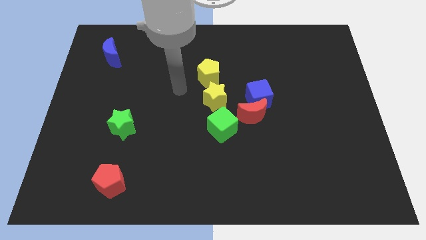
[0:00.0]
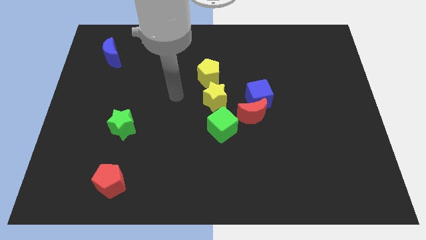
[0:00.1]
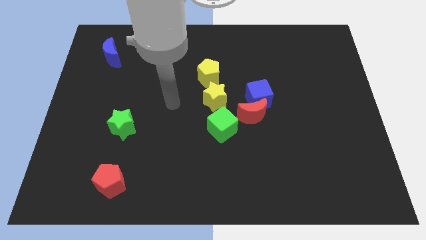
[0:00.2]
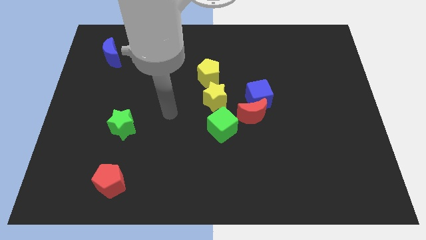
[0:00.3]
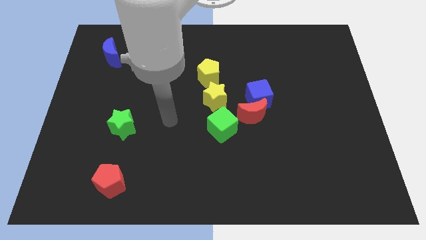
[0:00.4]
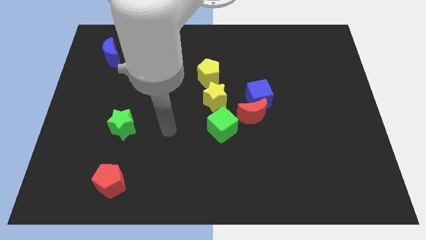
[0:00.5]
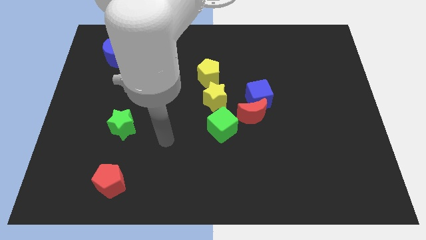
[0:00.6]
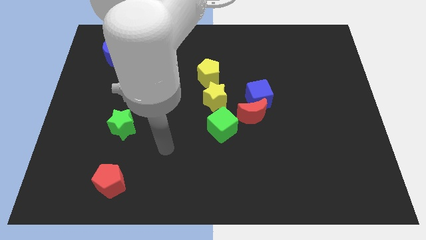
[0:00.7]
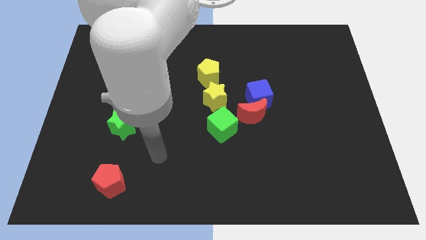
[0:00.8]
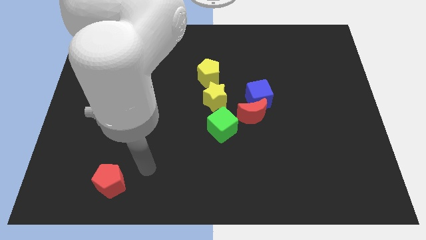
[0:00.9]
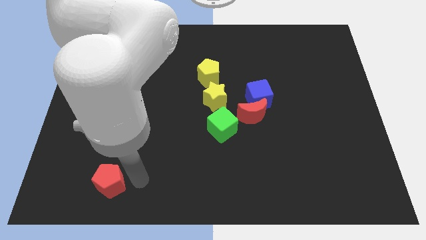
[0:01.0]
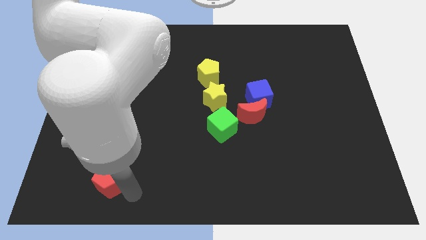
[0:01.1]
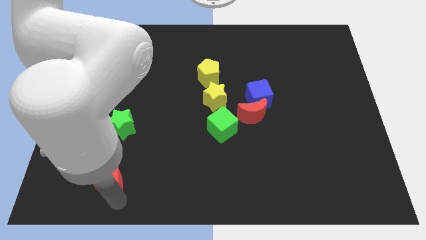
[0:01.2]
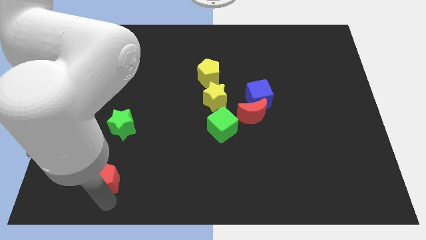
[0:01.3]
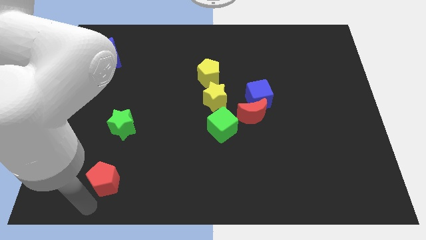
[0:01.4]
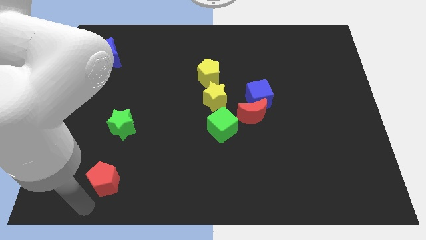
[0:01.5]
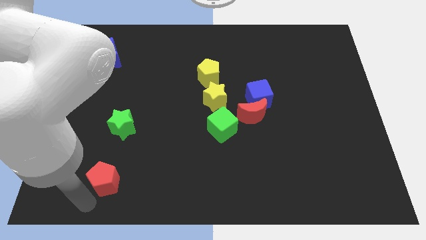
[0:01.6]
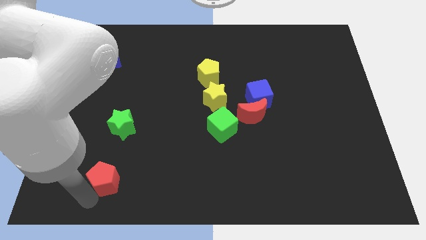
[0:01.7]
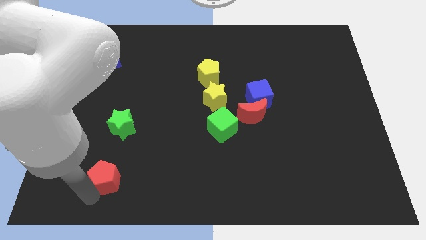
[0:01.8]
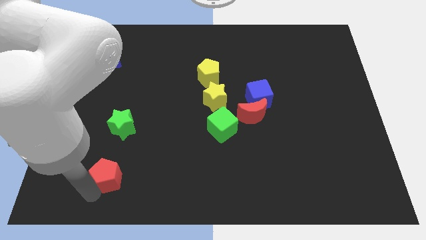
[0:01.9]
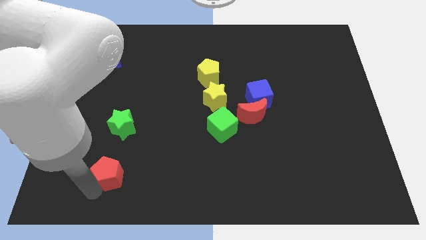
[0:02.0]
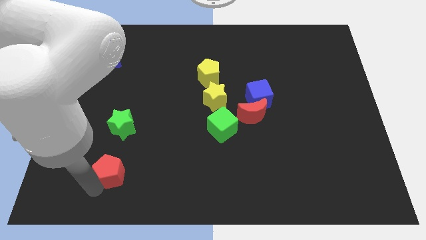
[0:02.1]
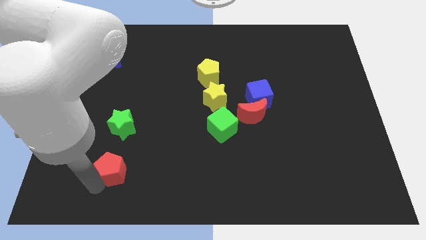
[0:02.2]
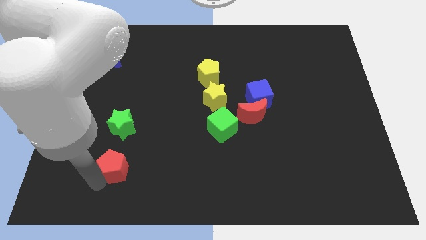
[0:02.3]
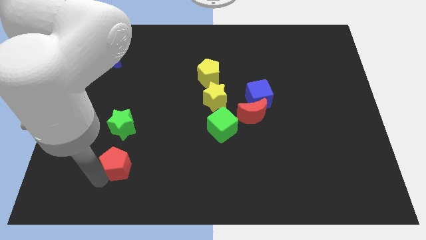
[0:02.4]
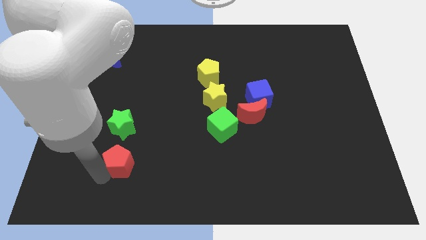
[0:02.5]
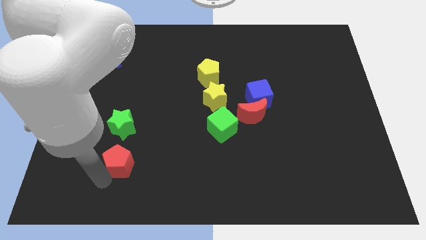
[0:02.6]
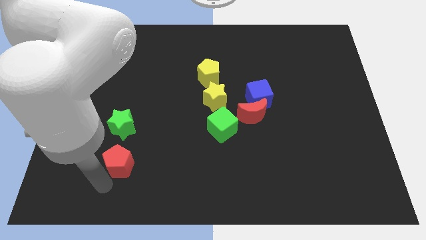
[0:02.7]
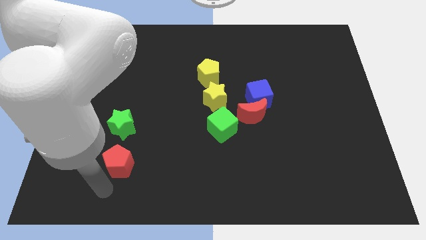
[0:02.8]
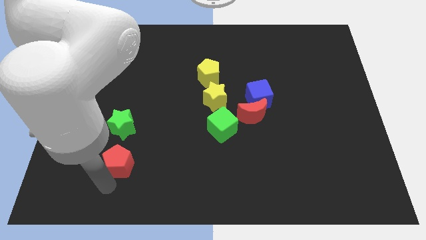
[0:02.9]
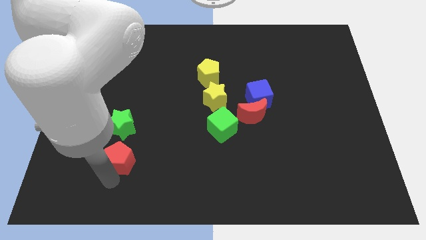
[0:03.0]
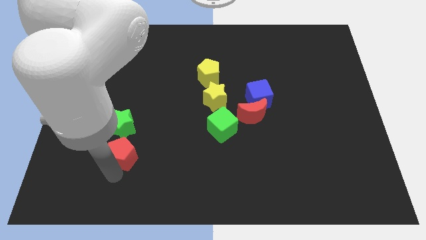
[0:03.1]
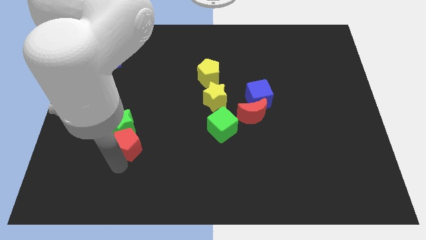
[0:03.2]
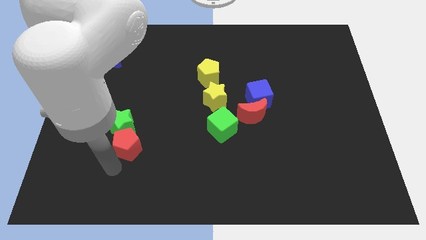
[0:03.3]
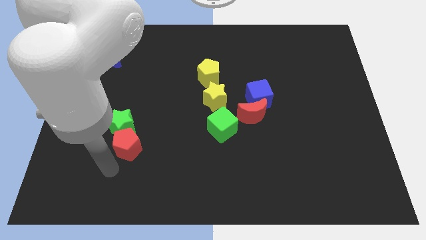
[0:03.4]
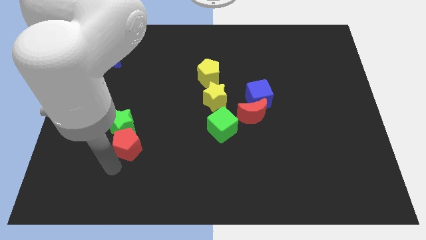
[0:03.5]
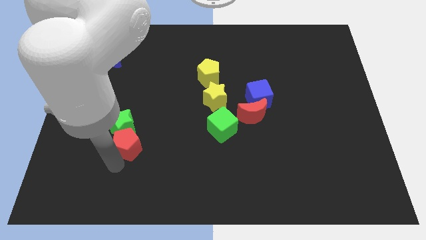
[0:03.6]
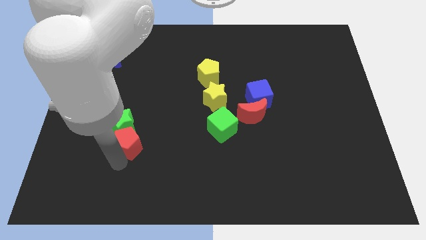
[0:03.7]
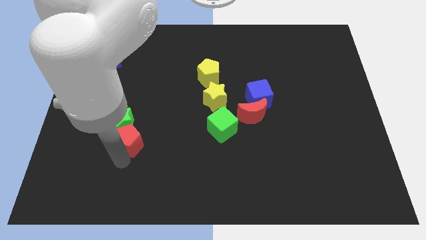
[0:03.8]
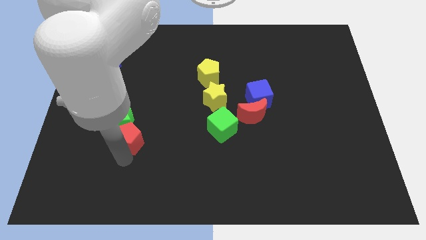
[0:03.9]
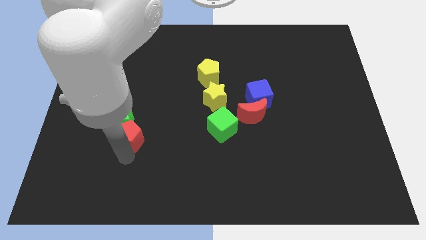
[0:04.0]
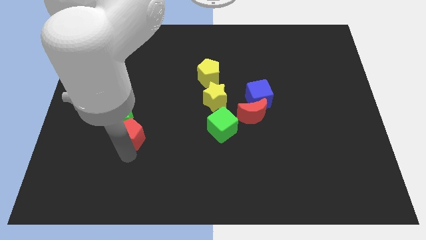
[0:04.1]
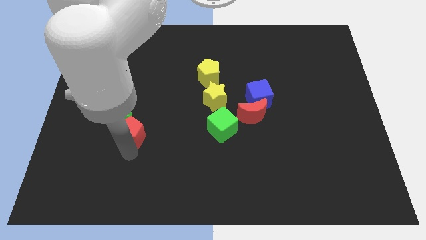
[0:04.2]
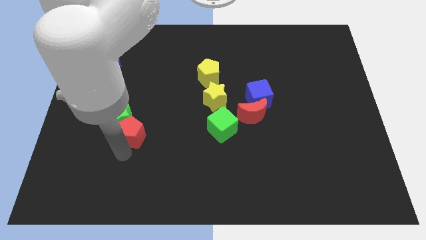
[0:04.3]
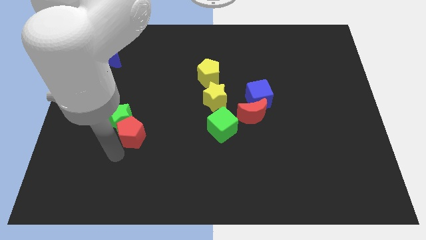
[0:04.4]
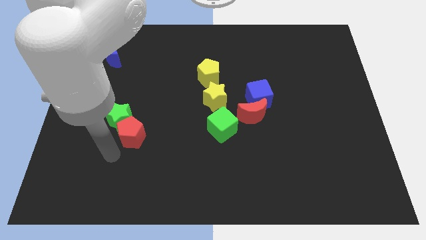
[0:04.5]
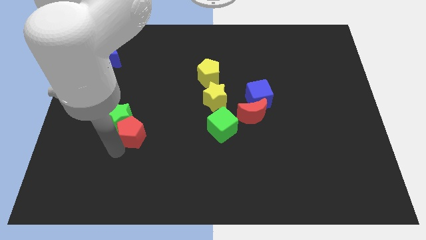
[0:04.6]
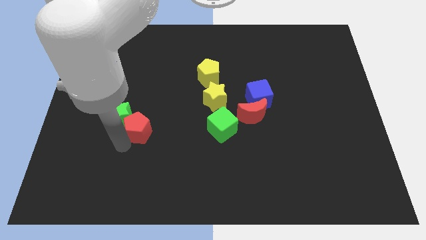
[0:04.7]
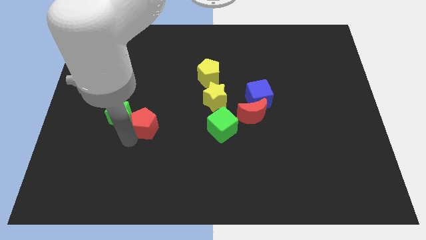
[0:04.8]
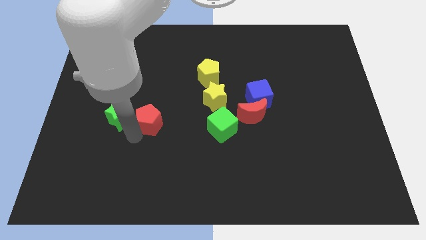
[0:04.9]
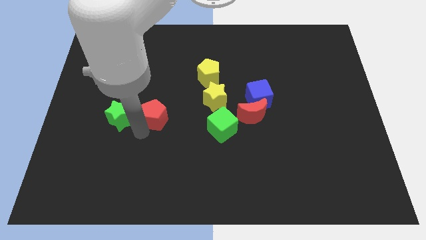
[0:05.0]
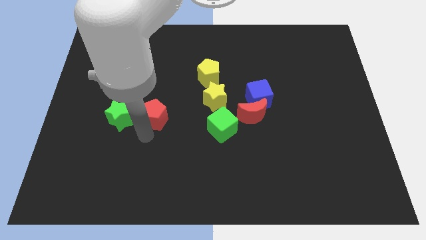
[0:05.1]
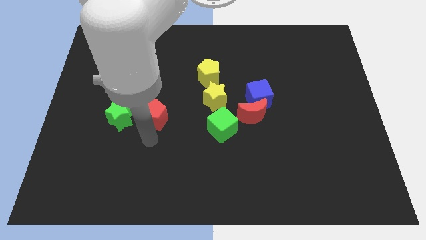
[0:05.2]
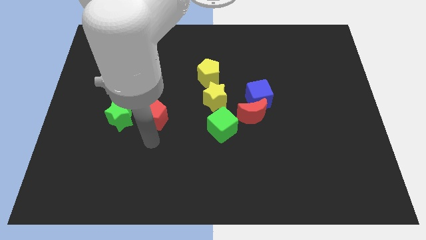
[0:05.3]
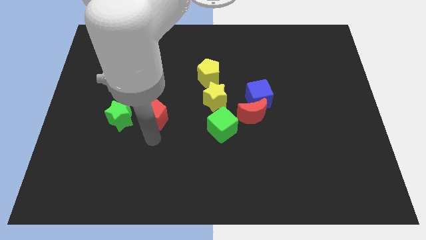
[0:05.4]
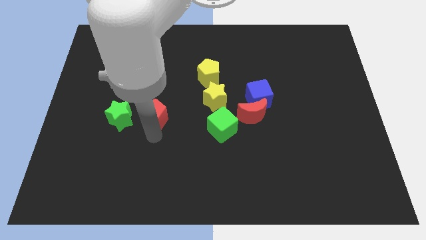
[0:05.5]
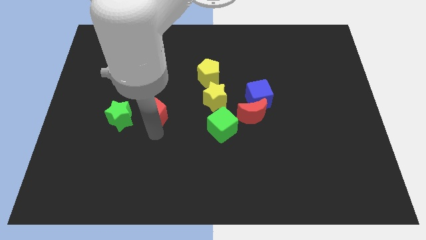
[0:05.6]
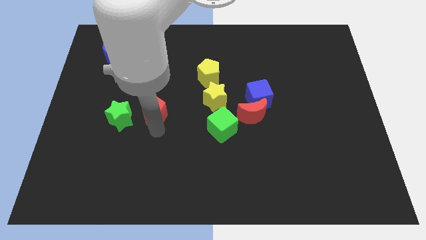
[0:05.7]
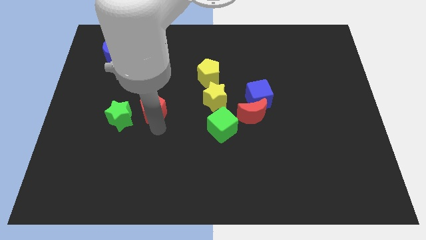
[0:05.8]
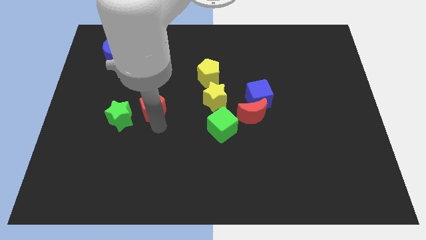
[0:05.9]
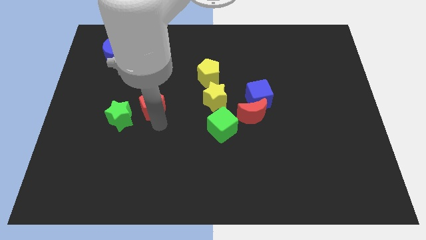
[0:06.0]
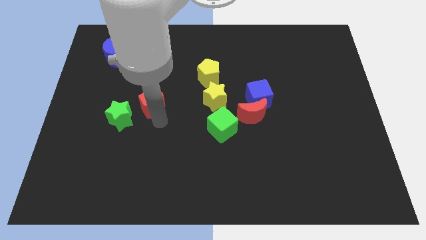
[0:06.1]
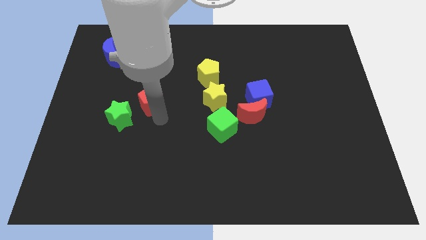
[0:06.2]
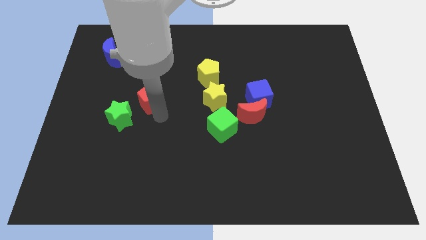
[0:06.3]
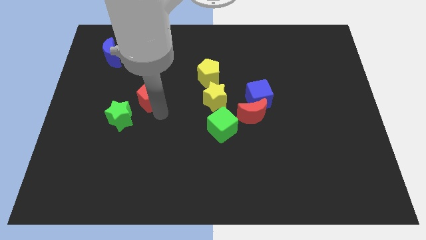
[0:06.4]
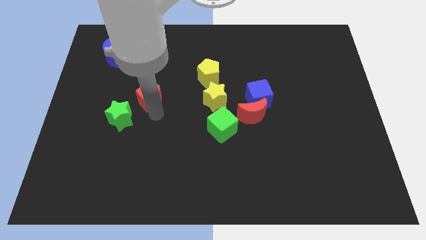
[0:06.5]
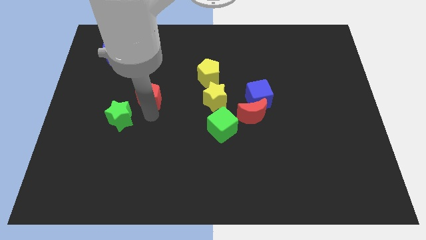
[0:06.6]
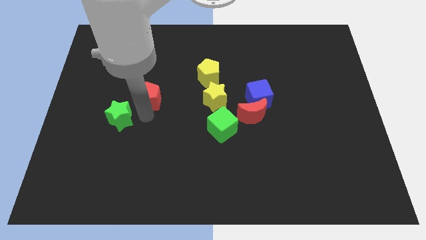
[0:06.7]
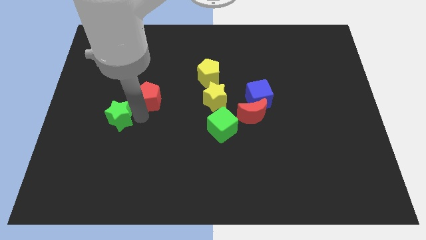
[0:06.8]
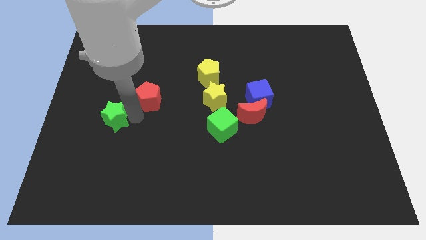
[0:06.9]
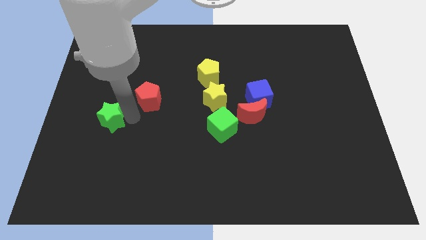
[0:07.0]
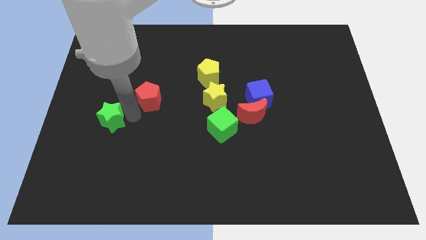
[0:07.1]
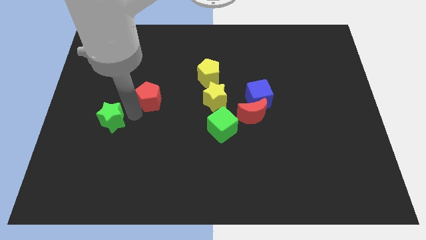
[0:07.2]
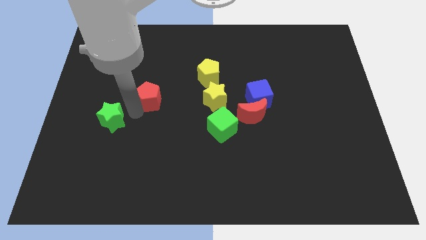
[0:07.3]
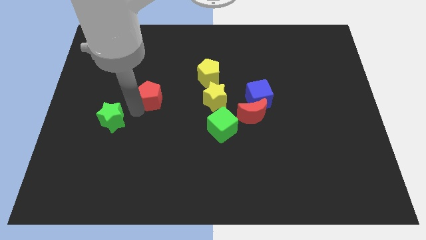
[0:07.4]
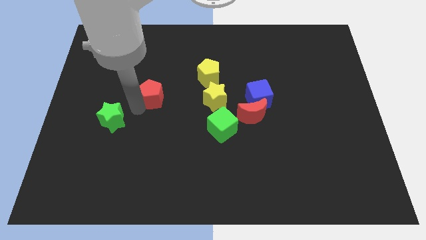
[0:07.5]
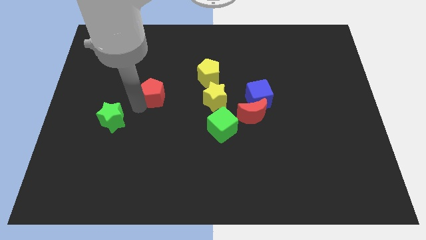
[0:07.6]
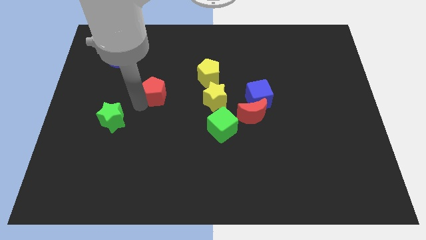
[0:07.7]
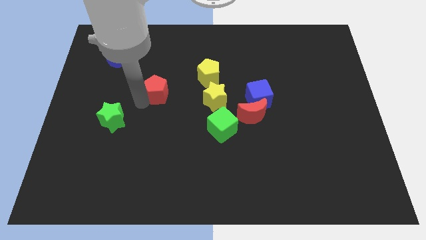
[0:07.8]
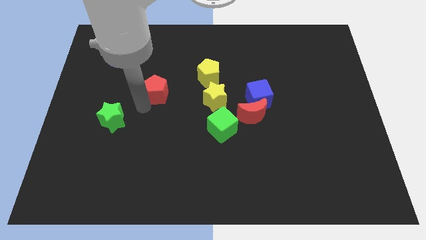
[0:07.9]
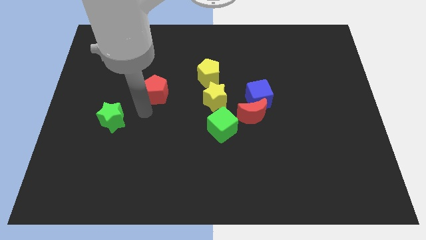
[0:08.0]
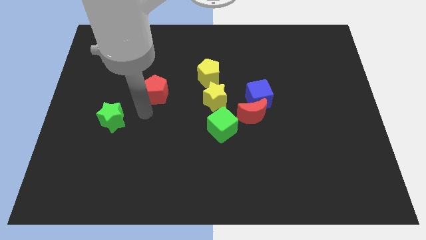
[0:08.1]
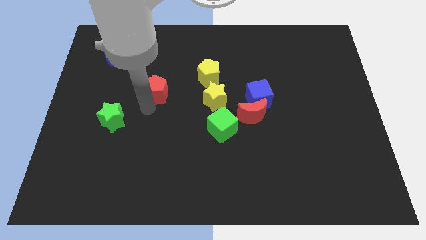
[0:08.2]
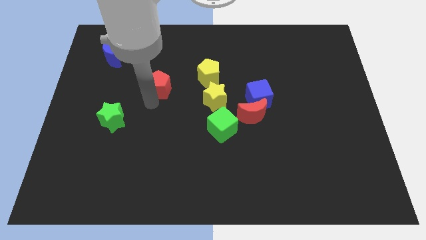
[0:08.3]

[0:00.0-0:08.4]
slide the red pentagon just left of the yellow pentagon
